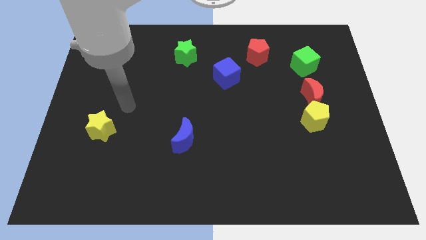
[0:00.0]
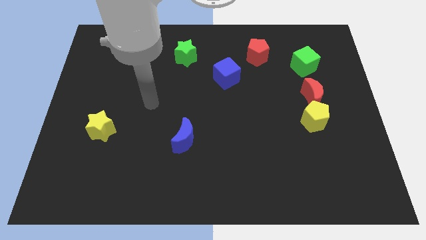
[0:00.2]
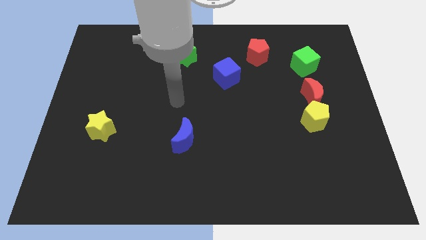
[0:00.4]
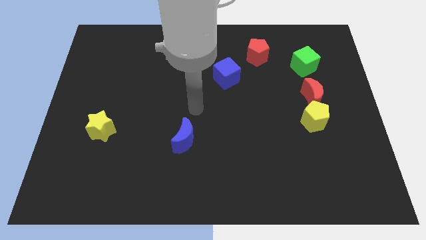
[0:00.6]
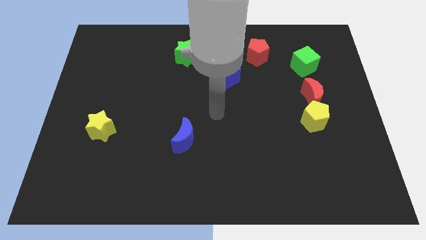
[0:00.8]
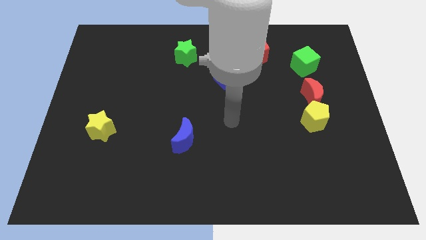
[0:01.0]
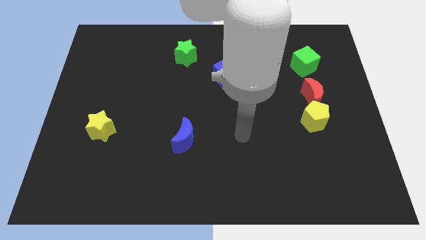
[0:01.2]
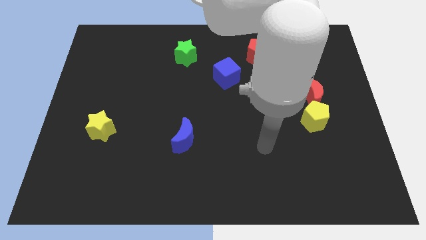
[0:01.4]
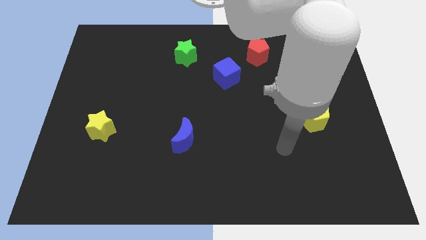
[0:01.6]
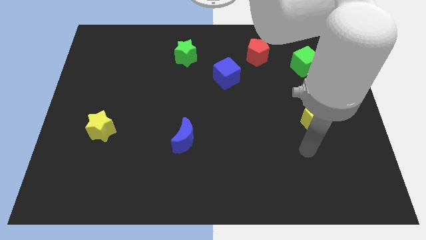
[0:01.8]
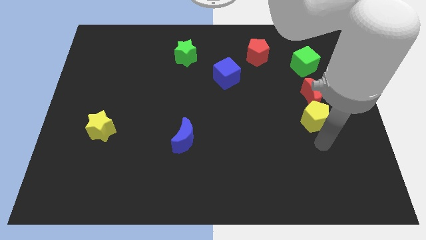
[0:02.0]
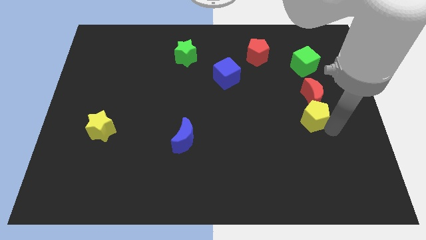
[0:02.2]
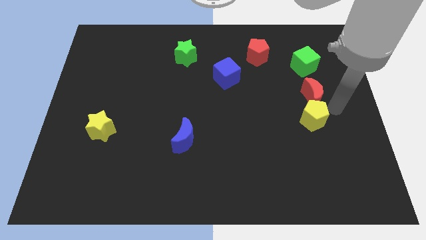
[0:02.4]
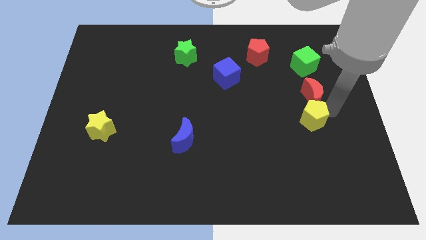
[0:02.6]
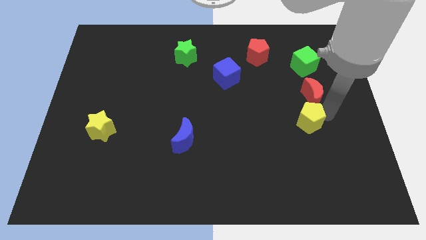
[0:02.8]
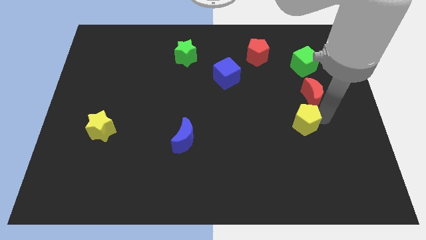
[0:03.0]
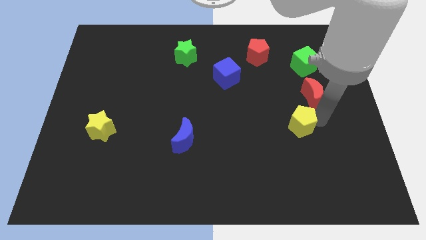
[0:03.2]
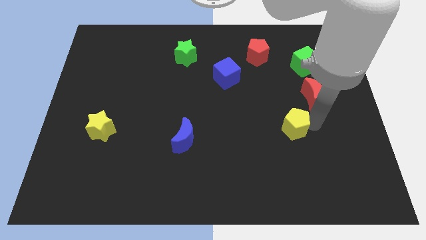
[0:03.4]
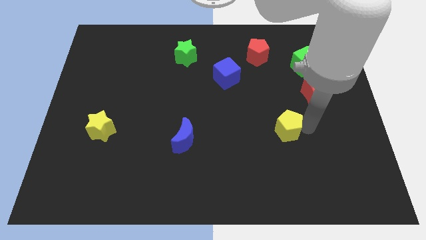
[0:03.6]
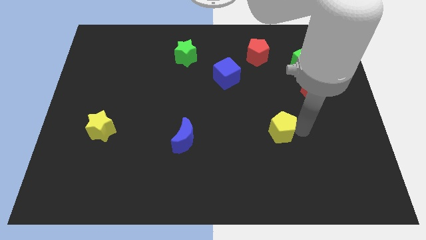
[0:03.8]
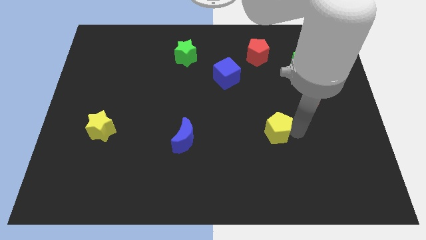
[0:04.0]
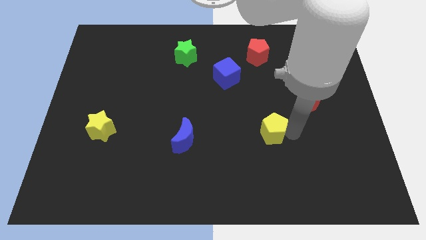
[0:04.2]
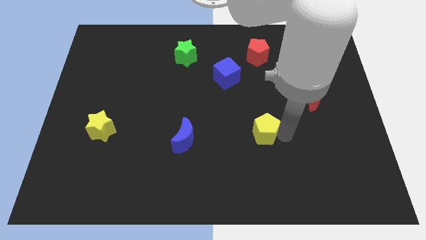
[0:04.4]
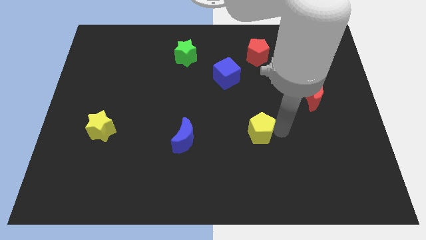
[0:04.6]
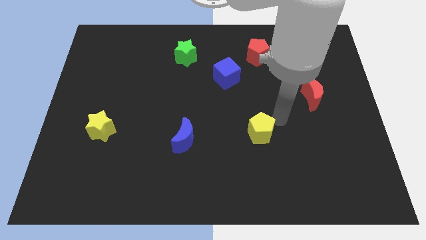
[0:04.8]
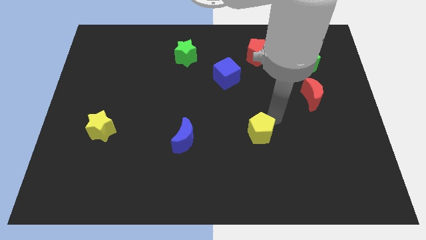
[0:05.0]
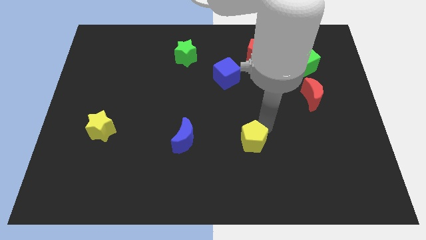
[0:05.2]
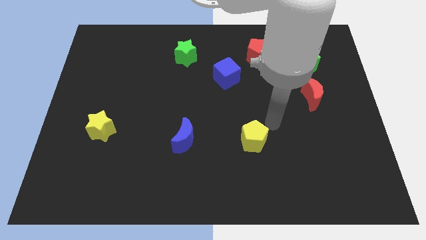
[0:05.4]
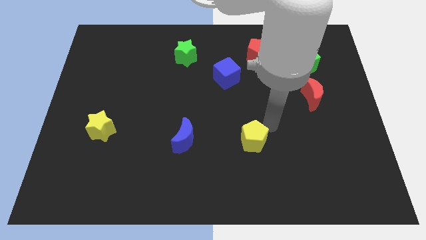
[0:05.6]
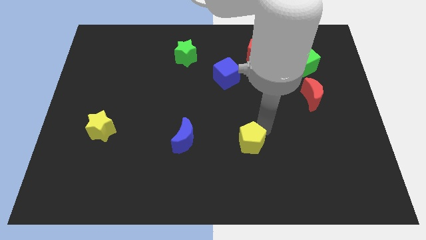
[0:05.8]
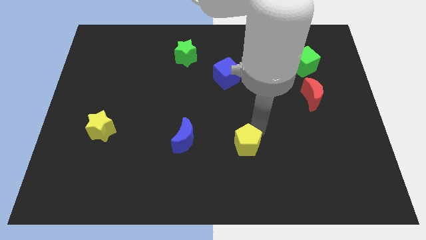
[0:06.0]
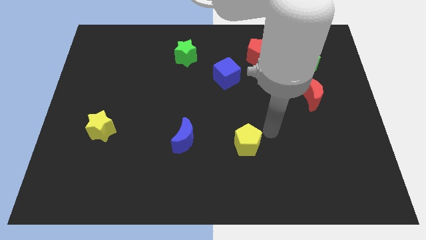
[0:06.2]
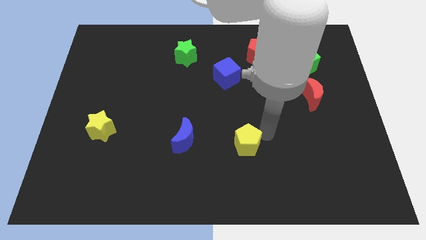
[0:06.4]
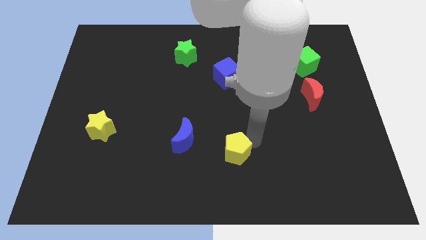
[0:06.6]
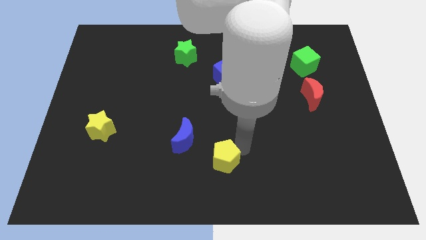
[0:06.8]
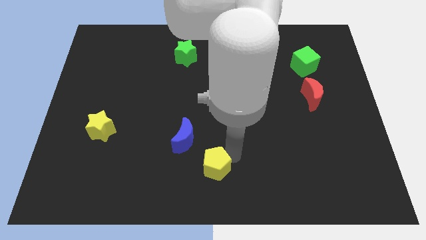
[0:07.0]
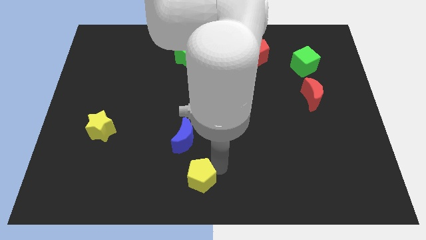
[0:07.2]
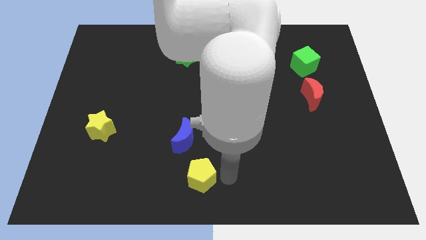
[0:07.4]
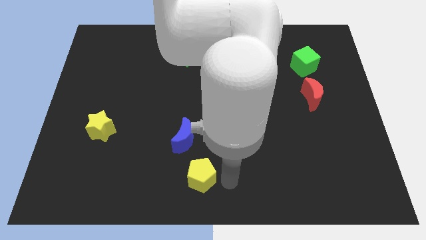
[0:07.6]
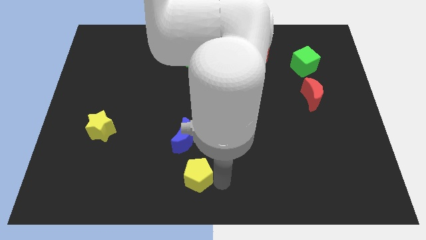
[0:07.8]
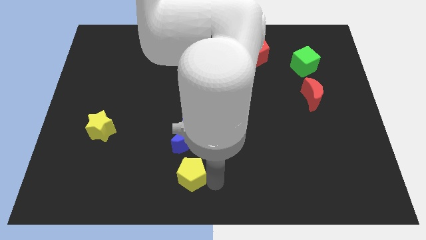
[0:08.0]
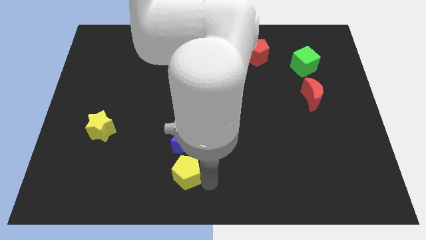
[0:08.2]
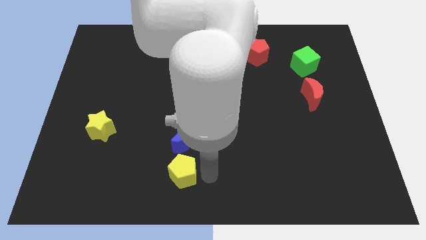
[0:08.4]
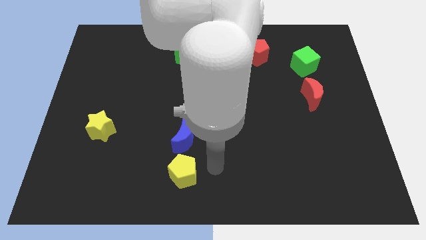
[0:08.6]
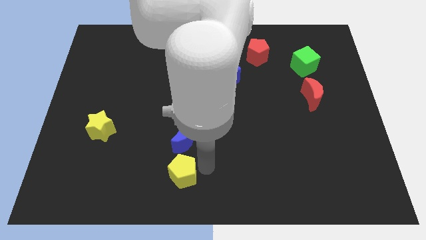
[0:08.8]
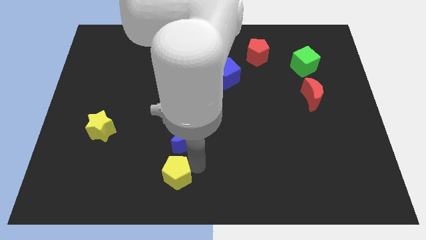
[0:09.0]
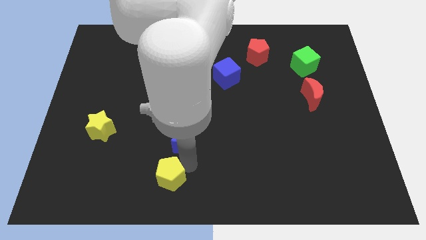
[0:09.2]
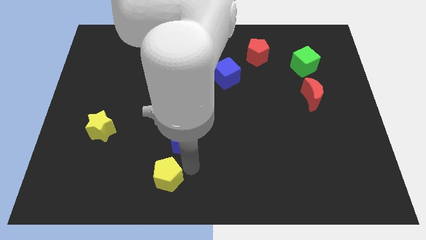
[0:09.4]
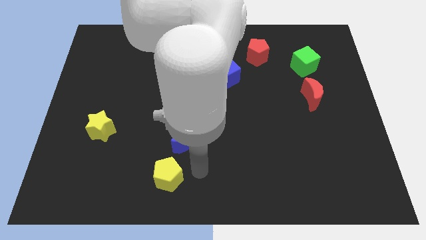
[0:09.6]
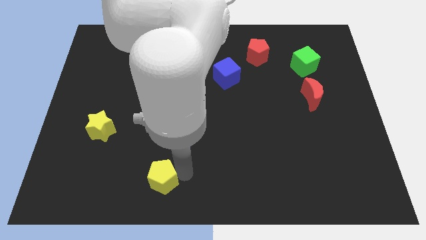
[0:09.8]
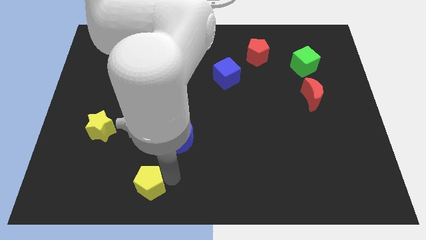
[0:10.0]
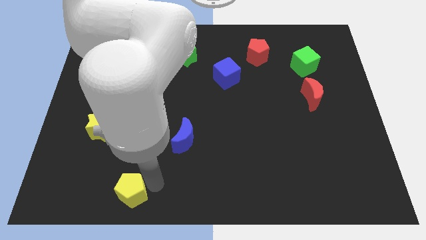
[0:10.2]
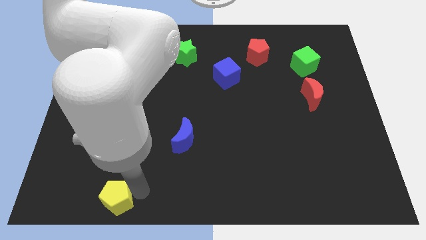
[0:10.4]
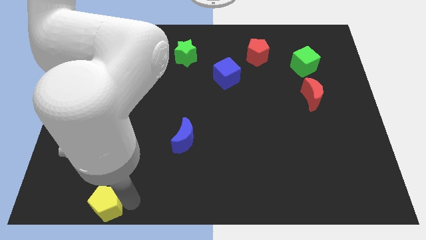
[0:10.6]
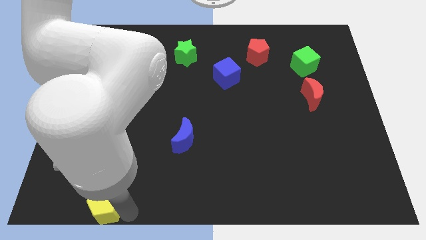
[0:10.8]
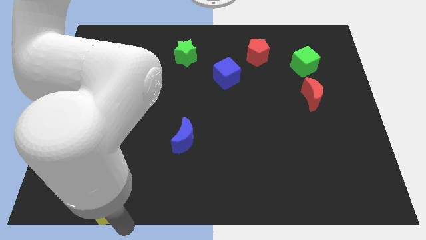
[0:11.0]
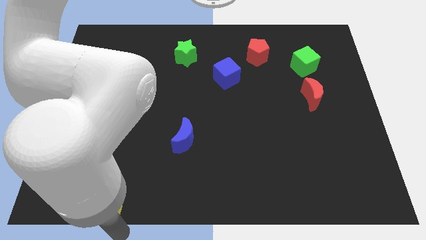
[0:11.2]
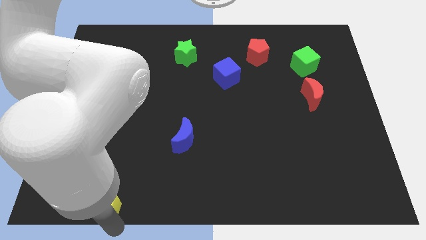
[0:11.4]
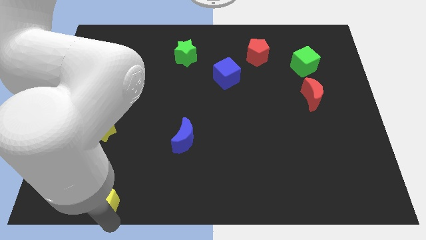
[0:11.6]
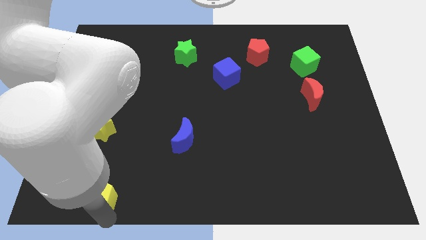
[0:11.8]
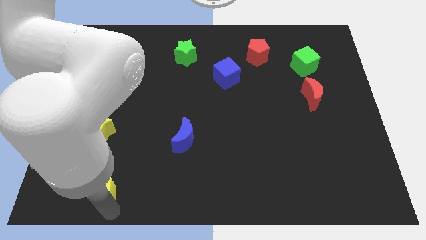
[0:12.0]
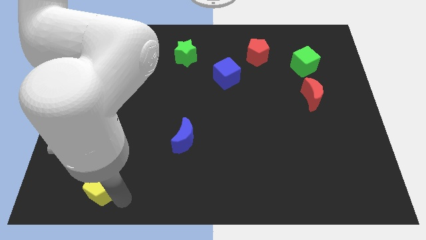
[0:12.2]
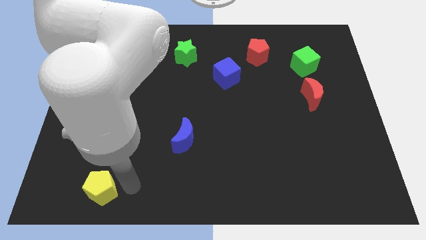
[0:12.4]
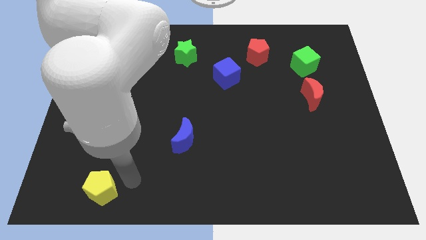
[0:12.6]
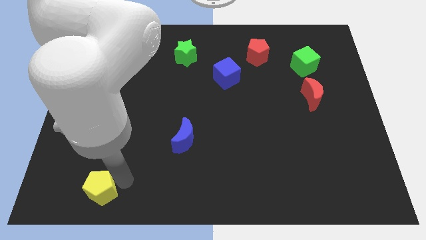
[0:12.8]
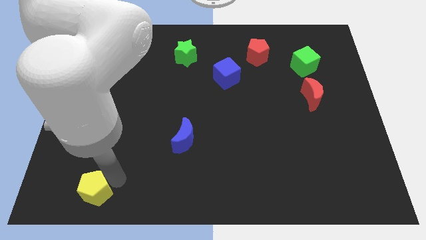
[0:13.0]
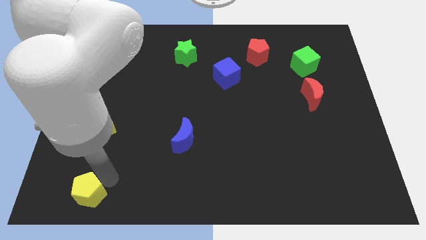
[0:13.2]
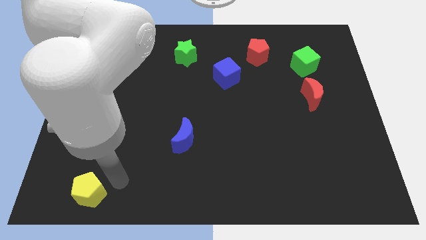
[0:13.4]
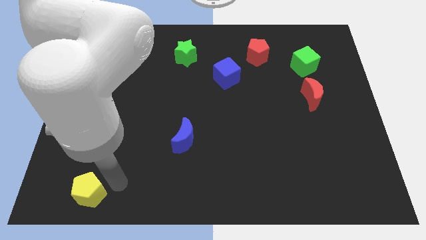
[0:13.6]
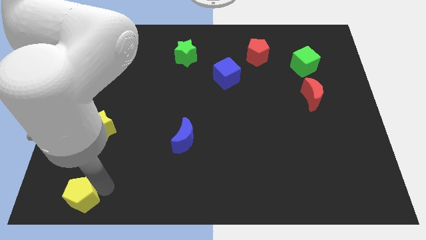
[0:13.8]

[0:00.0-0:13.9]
push the yellow pentagon to the bottom left corner
